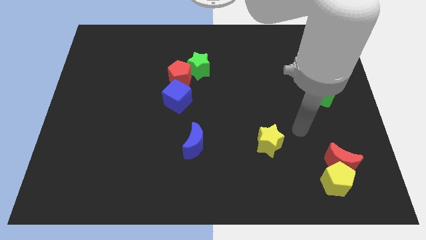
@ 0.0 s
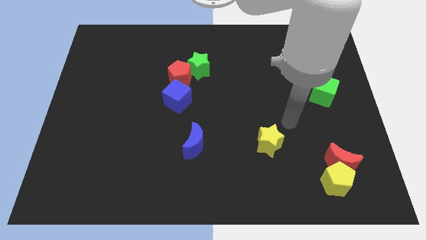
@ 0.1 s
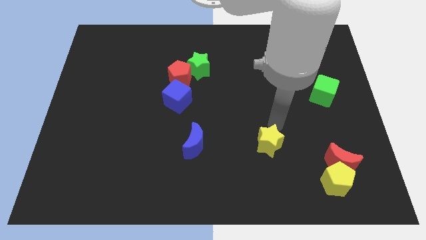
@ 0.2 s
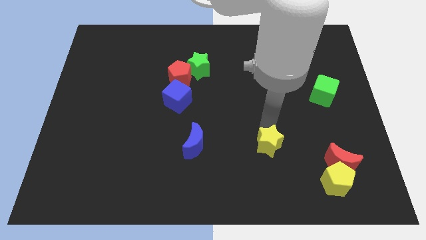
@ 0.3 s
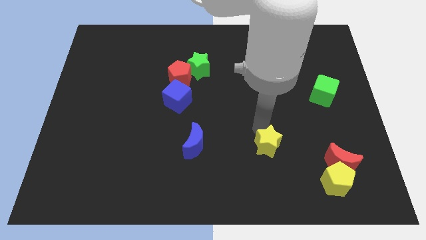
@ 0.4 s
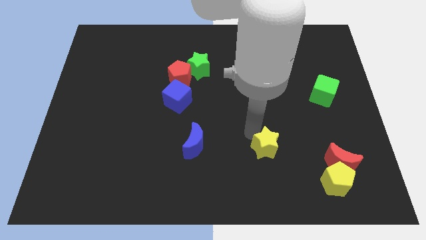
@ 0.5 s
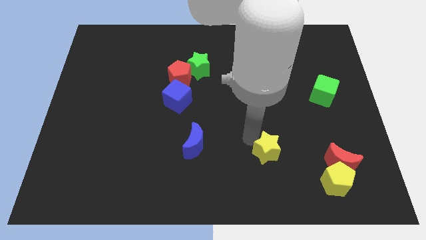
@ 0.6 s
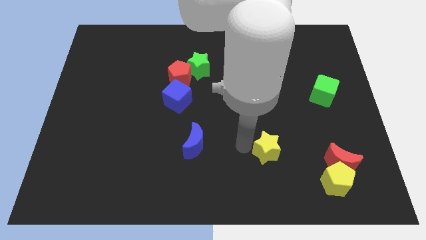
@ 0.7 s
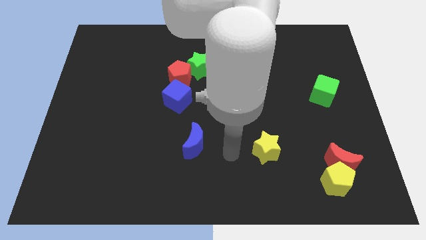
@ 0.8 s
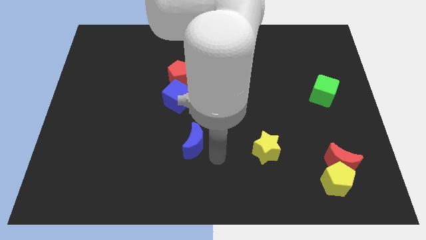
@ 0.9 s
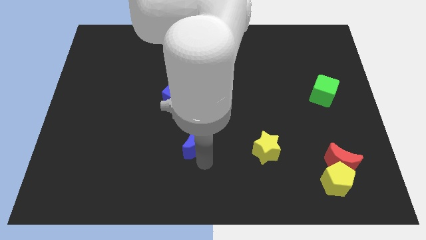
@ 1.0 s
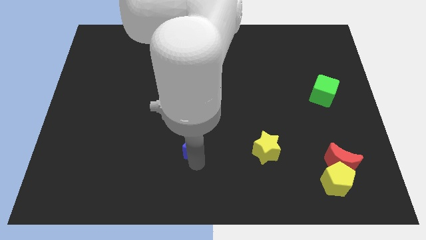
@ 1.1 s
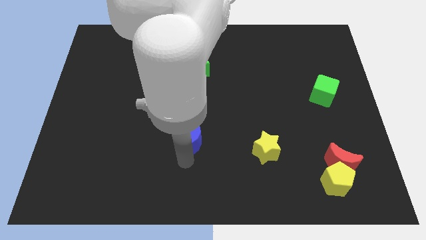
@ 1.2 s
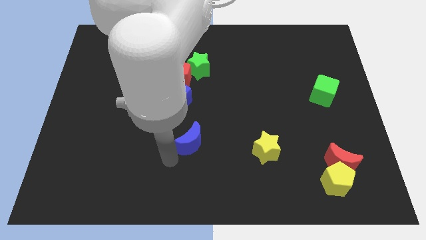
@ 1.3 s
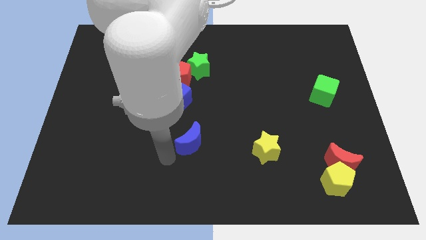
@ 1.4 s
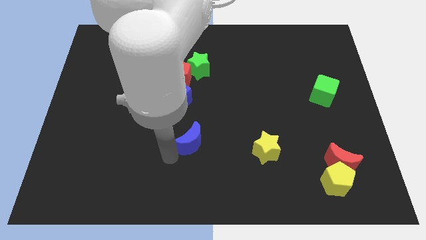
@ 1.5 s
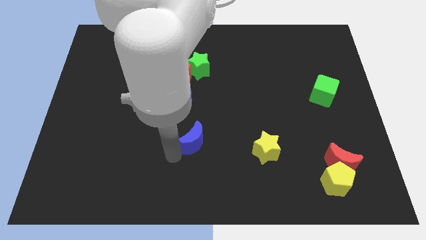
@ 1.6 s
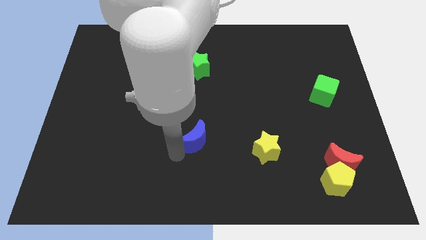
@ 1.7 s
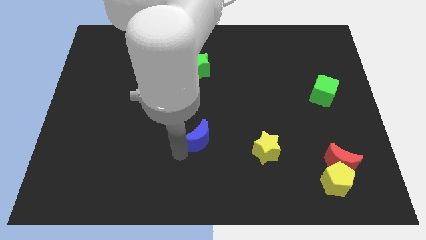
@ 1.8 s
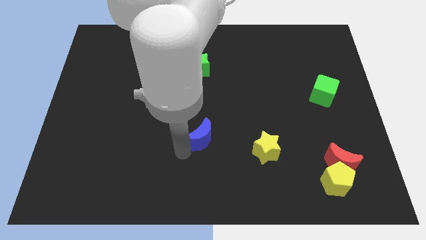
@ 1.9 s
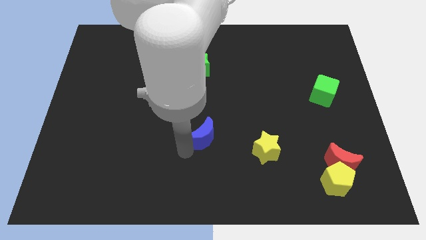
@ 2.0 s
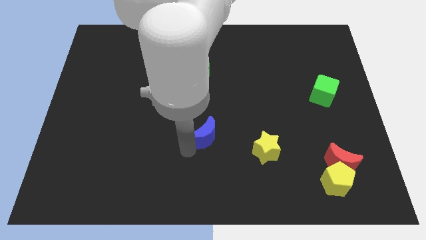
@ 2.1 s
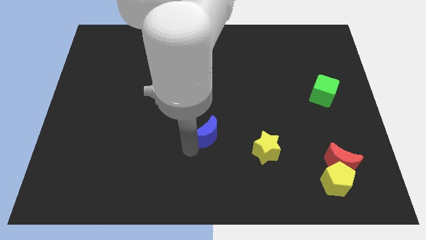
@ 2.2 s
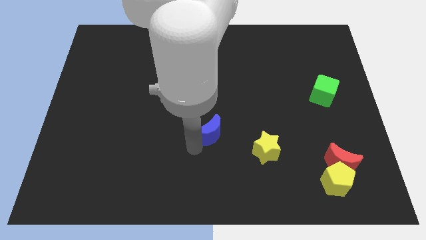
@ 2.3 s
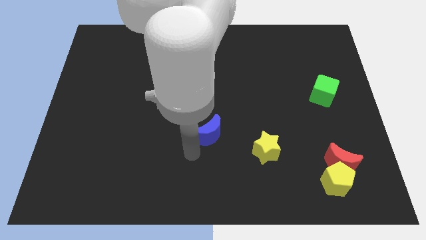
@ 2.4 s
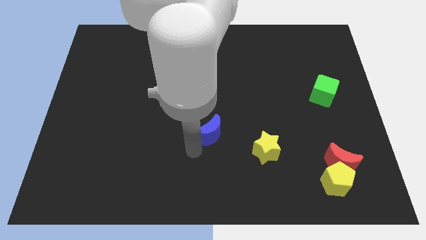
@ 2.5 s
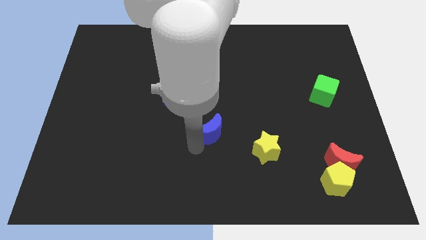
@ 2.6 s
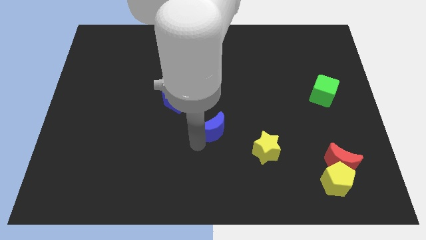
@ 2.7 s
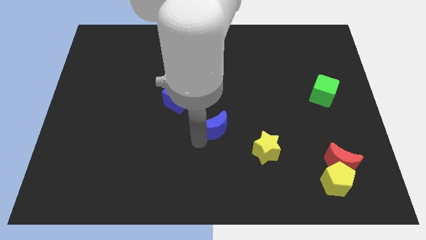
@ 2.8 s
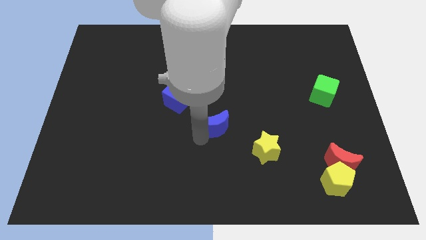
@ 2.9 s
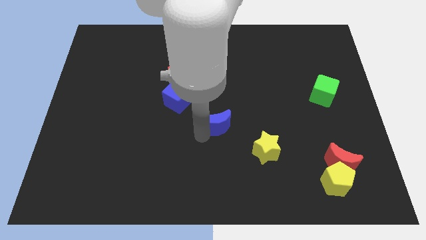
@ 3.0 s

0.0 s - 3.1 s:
slightly push the blue moon upwards and right diagonally

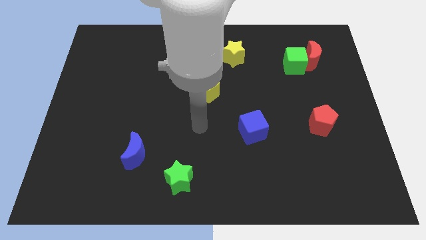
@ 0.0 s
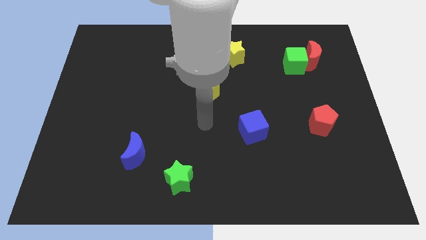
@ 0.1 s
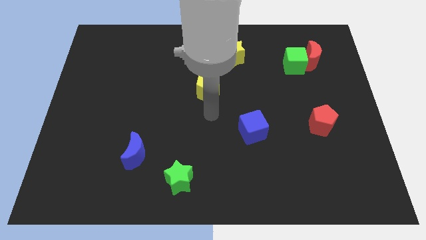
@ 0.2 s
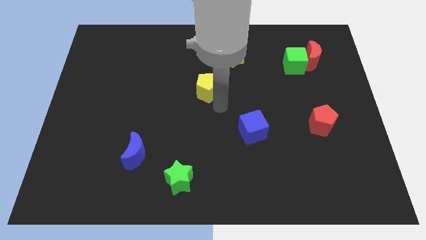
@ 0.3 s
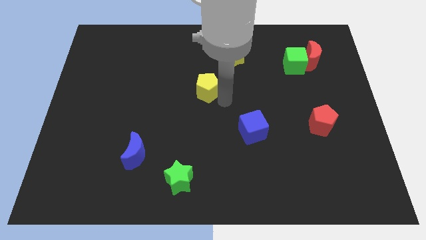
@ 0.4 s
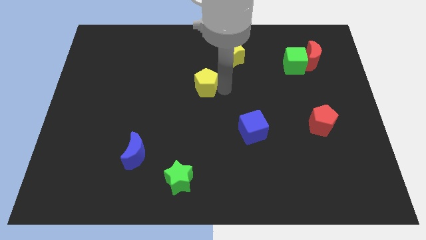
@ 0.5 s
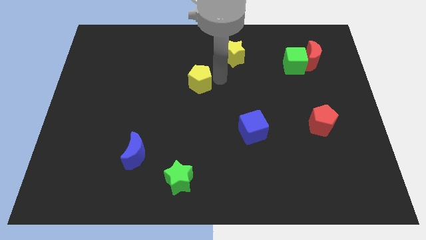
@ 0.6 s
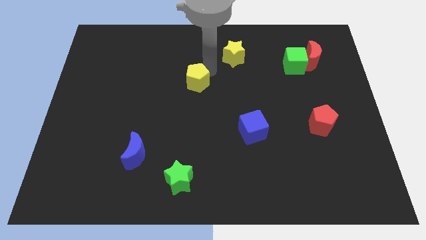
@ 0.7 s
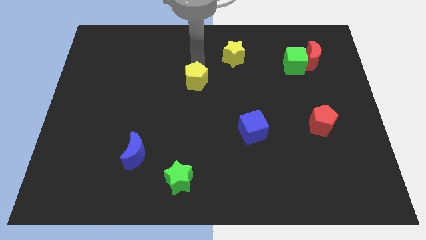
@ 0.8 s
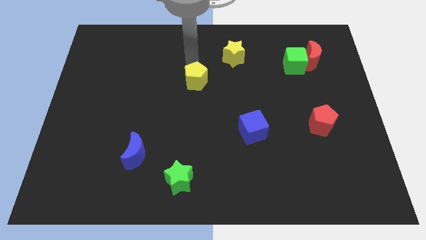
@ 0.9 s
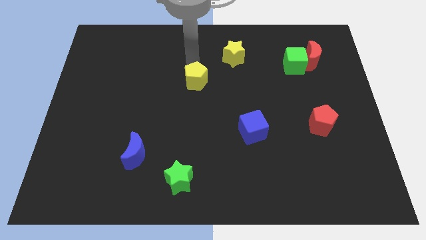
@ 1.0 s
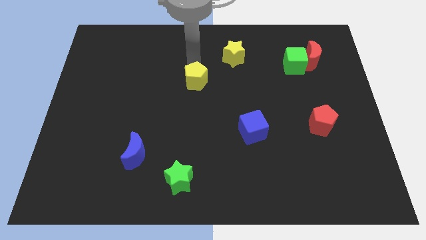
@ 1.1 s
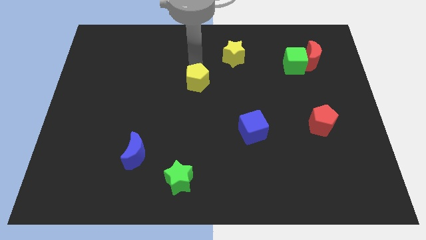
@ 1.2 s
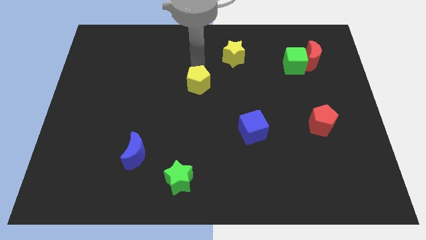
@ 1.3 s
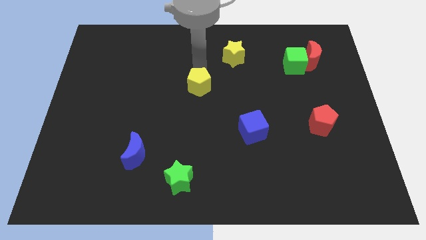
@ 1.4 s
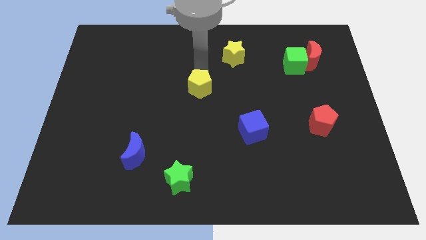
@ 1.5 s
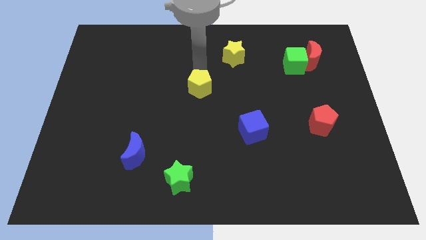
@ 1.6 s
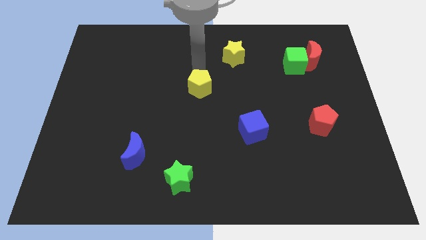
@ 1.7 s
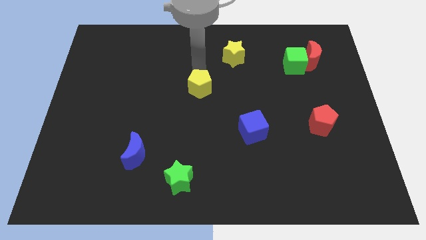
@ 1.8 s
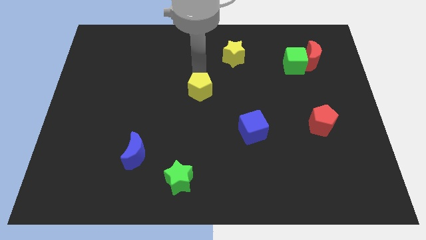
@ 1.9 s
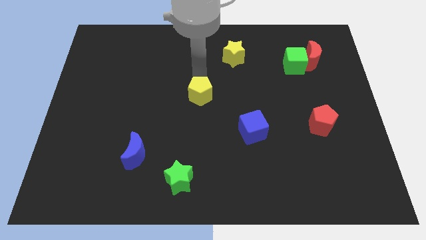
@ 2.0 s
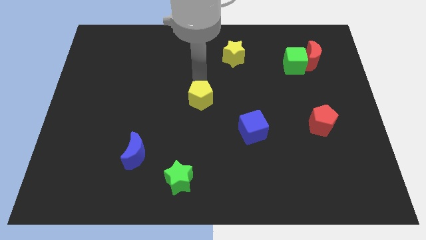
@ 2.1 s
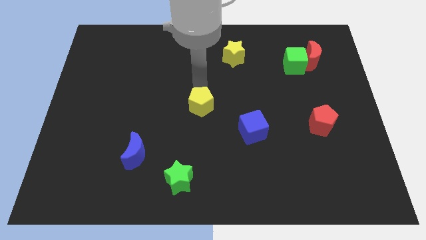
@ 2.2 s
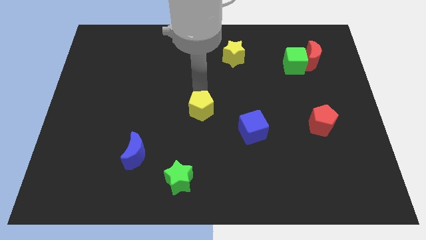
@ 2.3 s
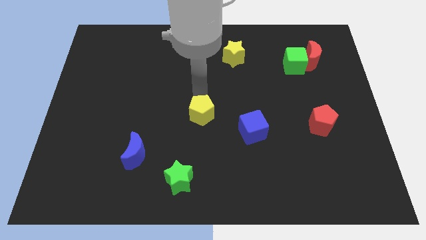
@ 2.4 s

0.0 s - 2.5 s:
slightly push the yellow pentagon downwards

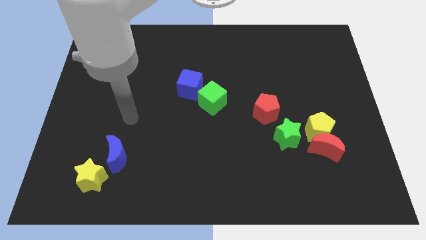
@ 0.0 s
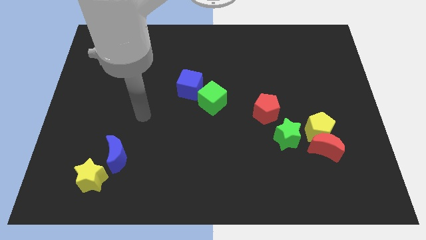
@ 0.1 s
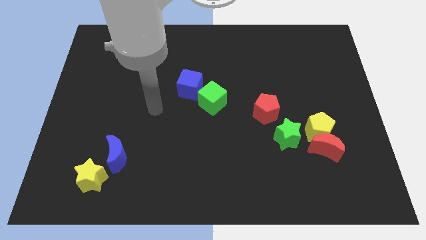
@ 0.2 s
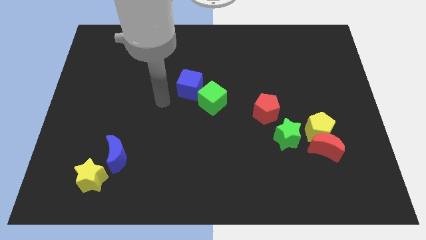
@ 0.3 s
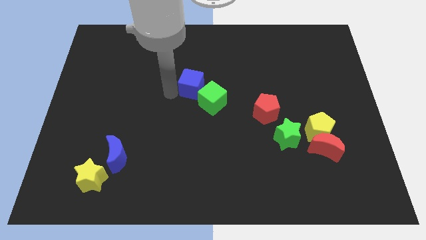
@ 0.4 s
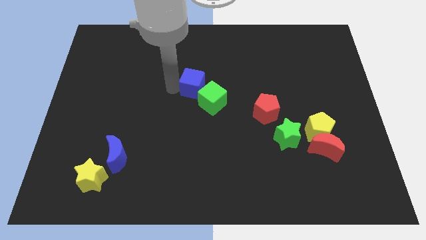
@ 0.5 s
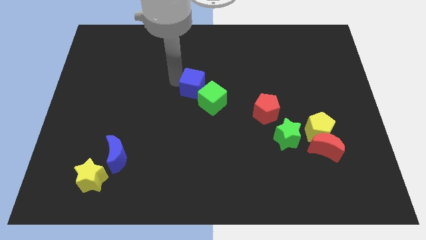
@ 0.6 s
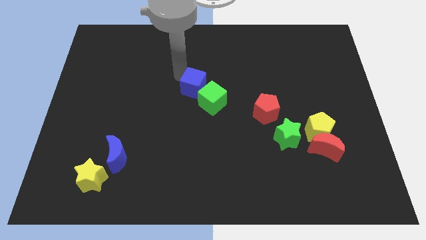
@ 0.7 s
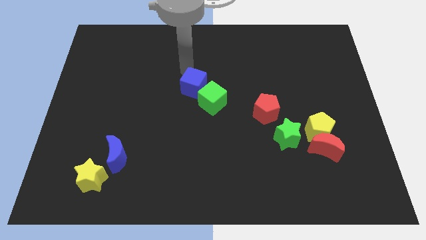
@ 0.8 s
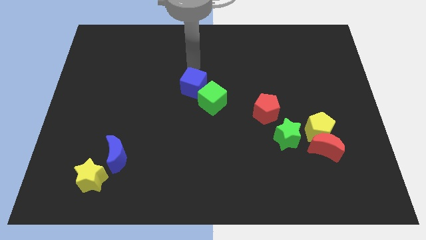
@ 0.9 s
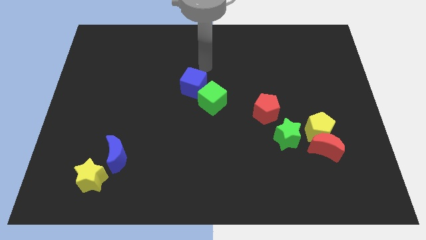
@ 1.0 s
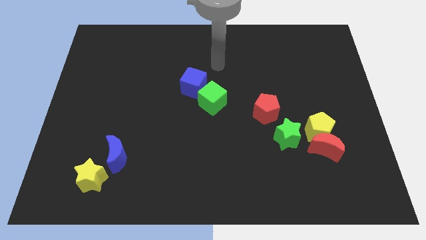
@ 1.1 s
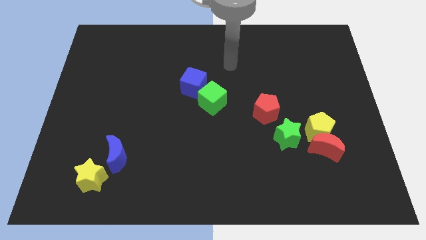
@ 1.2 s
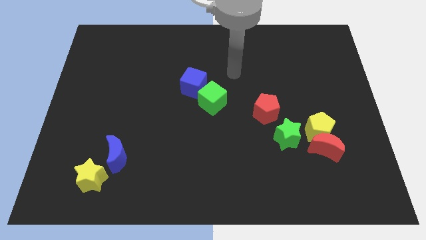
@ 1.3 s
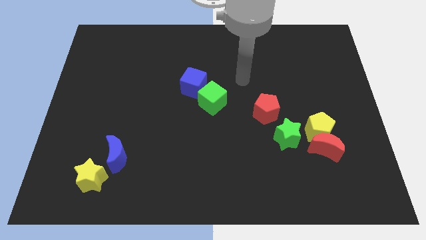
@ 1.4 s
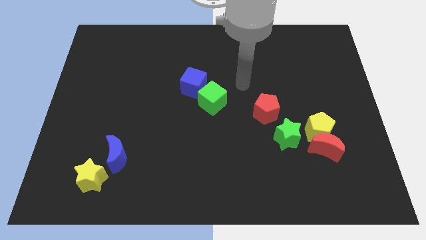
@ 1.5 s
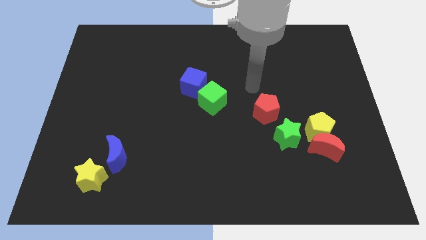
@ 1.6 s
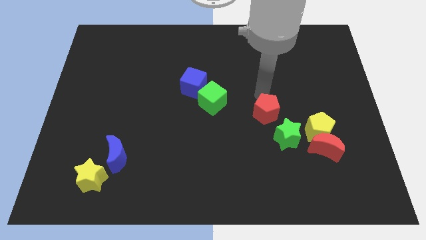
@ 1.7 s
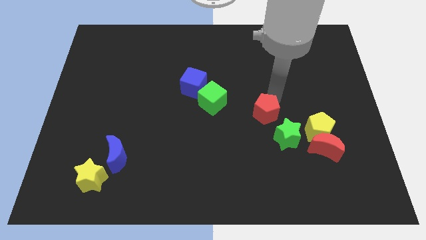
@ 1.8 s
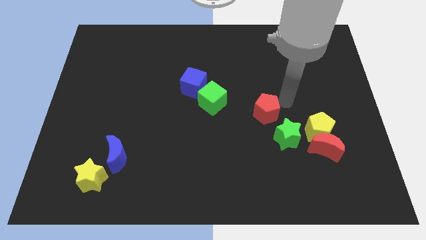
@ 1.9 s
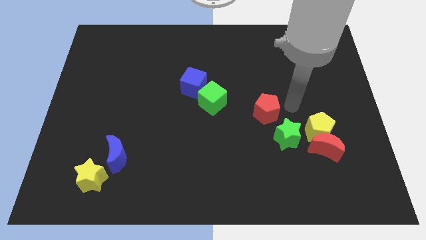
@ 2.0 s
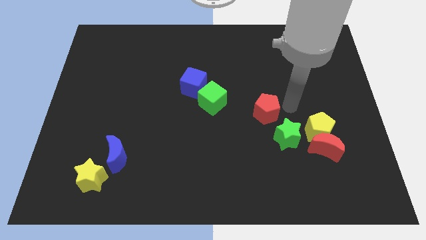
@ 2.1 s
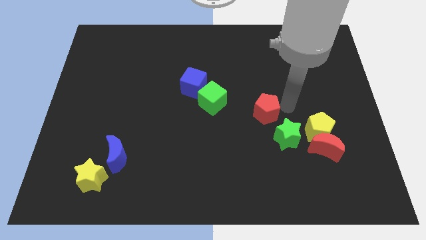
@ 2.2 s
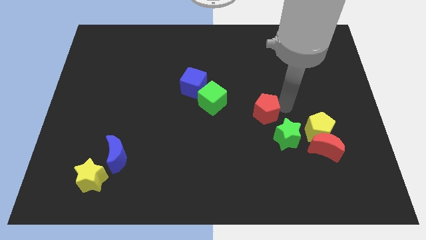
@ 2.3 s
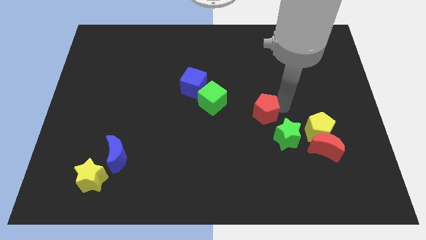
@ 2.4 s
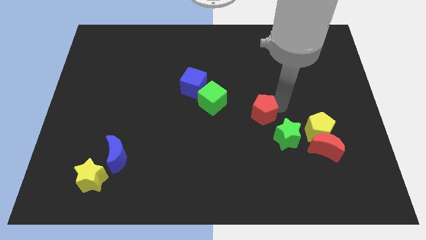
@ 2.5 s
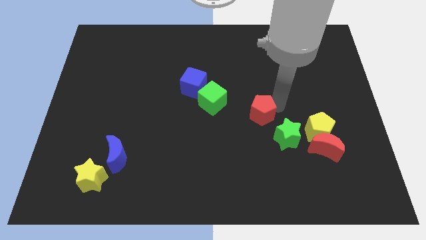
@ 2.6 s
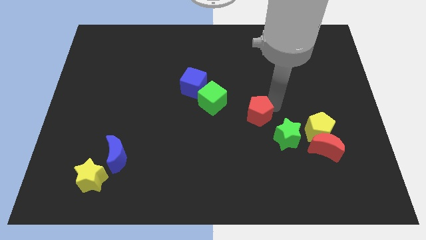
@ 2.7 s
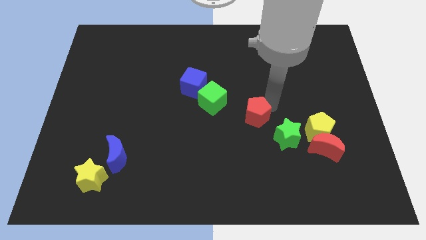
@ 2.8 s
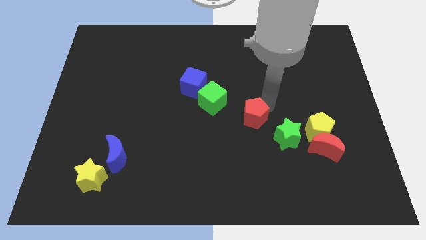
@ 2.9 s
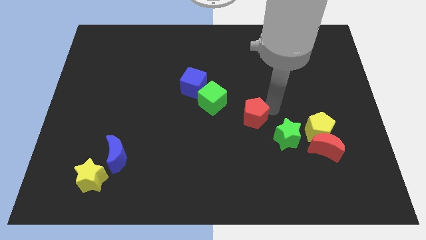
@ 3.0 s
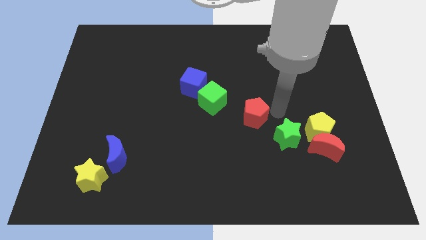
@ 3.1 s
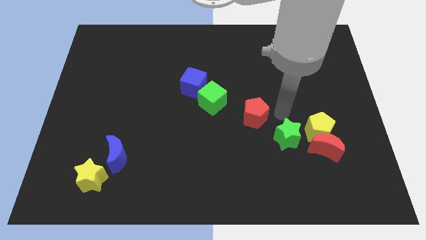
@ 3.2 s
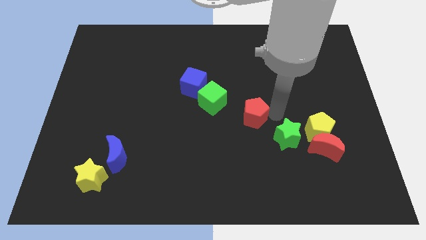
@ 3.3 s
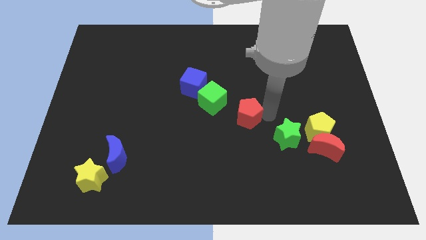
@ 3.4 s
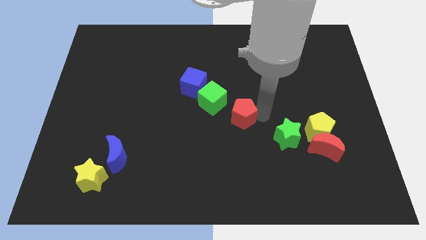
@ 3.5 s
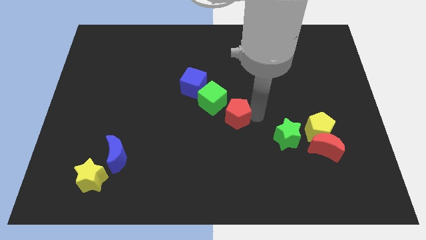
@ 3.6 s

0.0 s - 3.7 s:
slightly move the red pentagon to the left
